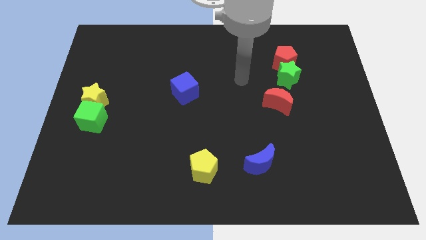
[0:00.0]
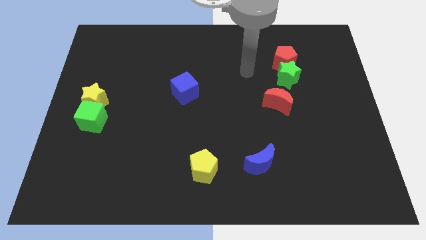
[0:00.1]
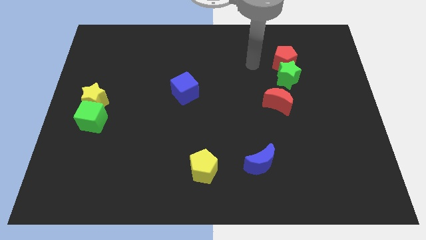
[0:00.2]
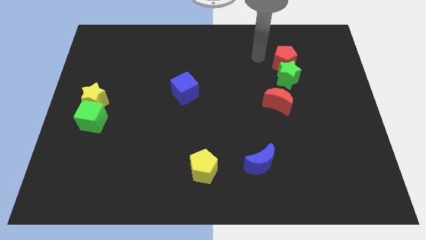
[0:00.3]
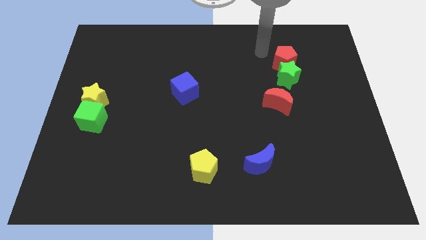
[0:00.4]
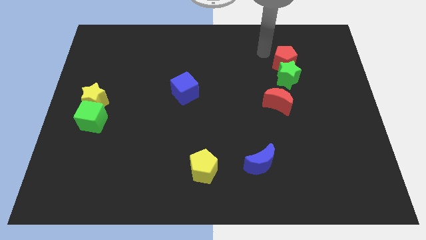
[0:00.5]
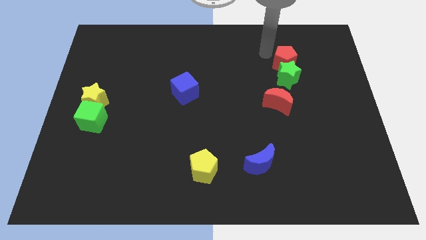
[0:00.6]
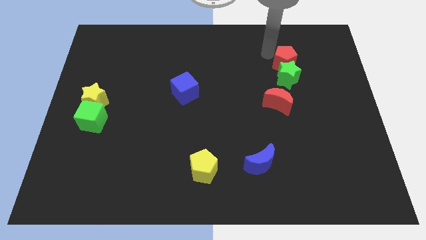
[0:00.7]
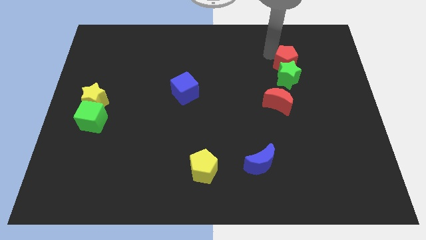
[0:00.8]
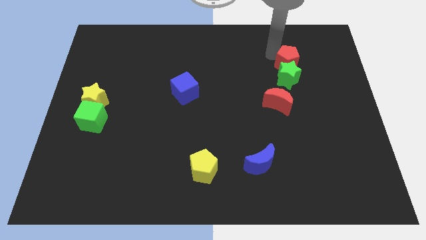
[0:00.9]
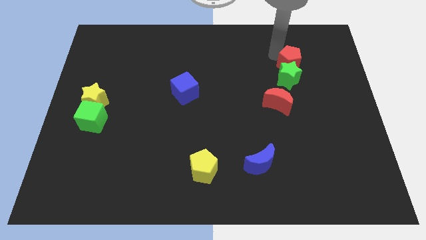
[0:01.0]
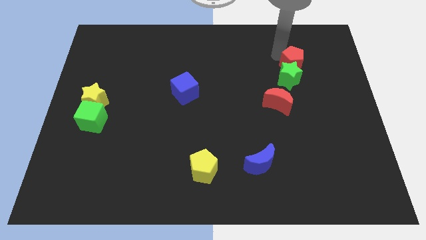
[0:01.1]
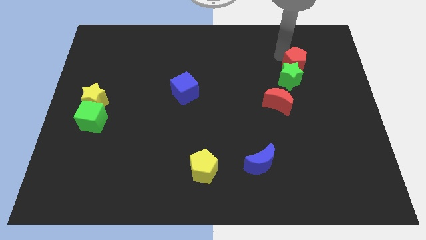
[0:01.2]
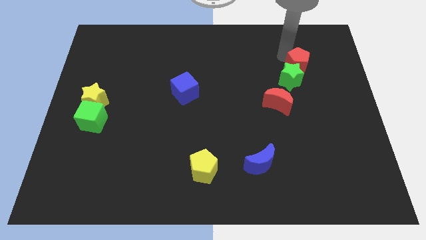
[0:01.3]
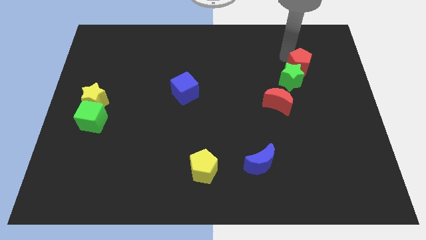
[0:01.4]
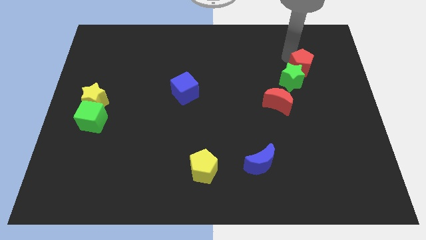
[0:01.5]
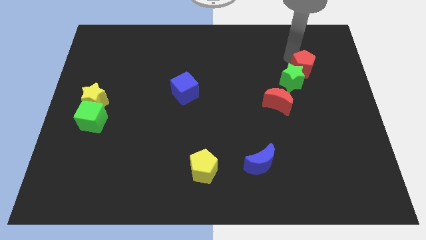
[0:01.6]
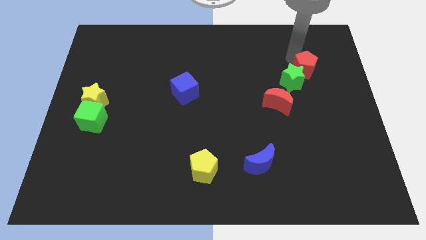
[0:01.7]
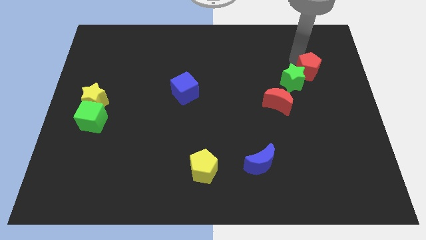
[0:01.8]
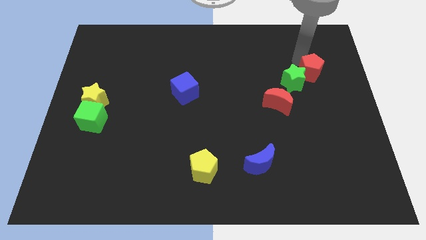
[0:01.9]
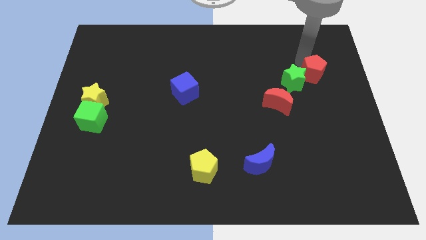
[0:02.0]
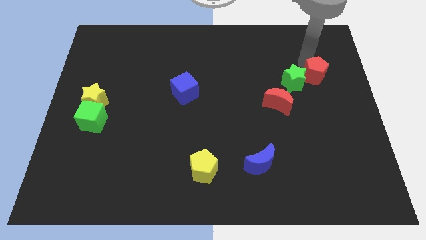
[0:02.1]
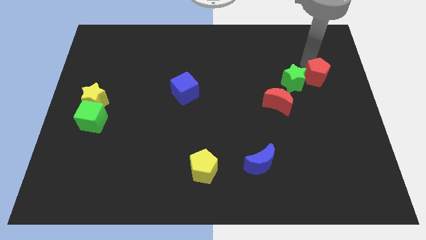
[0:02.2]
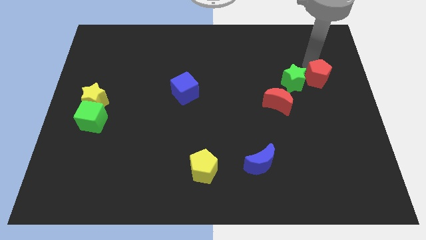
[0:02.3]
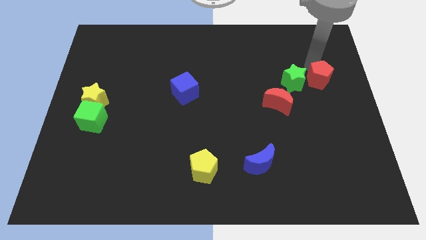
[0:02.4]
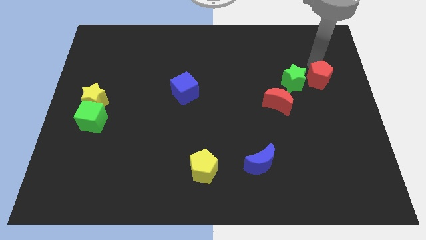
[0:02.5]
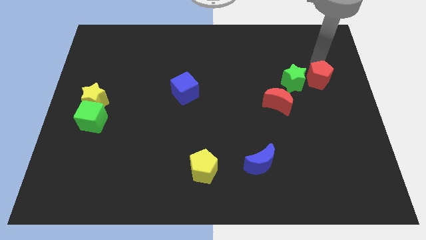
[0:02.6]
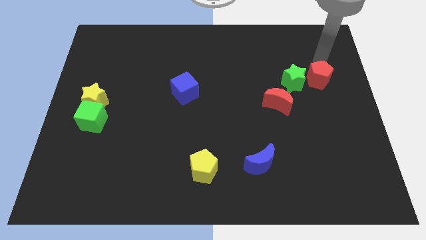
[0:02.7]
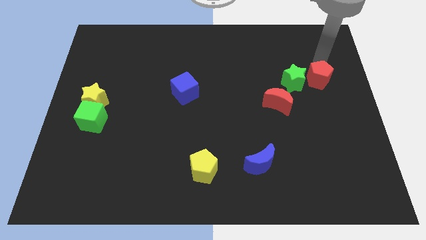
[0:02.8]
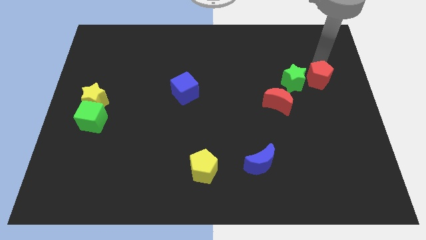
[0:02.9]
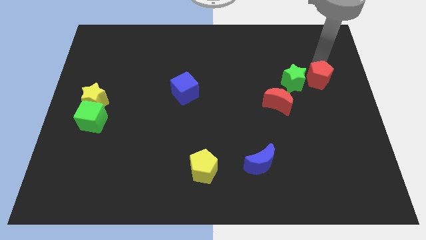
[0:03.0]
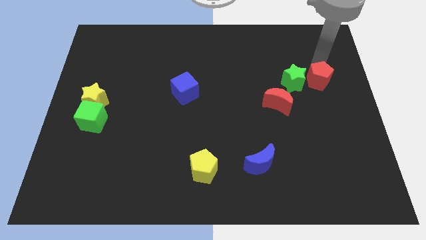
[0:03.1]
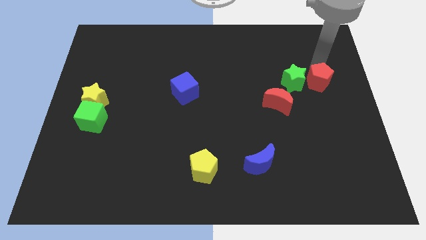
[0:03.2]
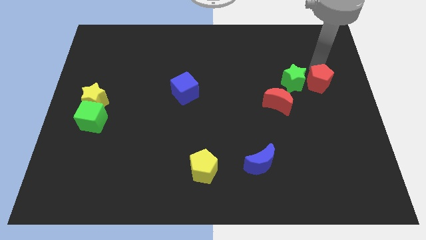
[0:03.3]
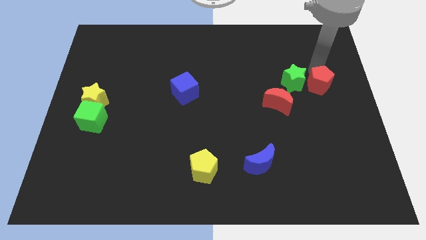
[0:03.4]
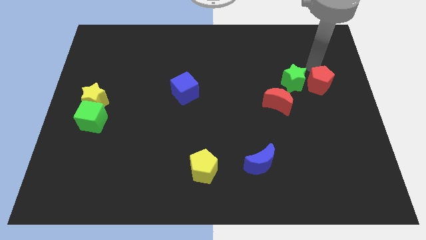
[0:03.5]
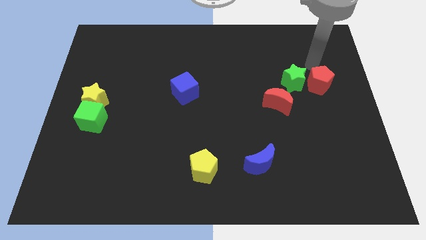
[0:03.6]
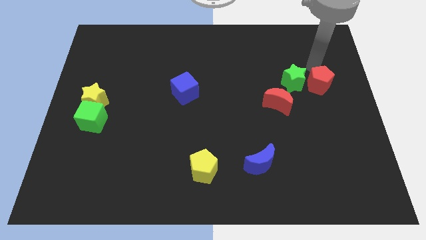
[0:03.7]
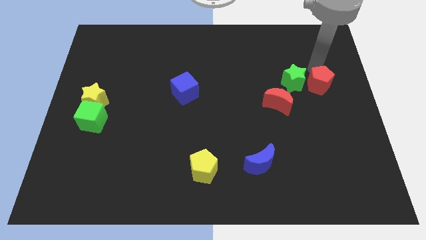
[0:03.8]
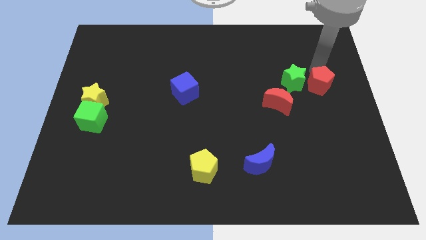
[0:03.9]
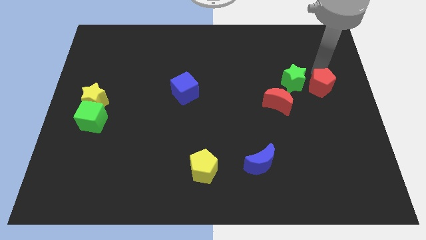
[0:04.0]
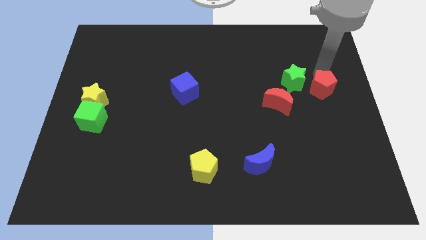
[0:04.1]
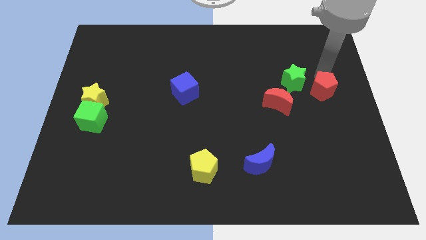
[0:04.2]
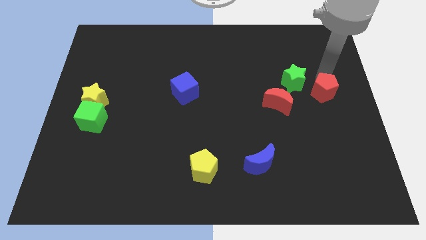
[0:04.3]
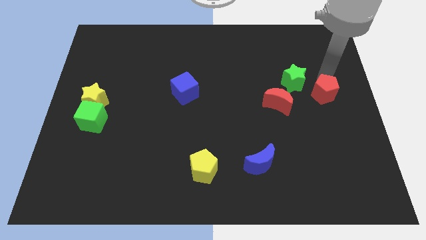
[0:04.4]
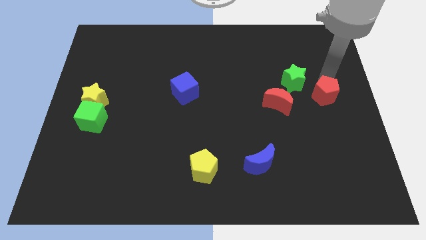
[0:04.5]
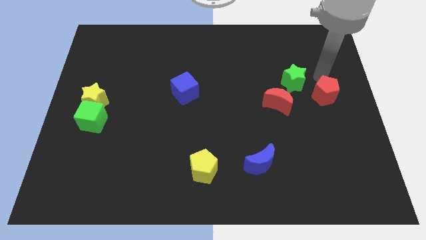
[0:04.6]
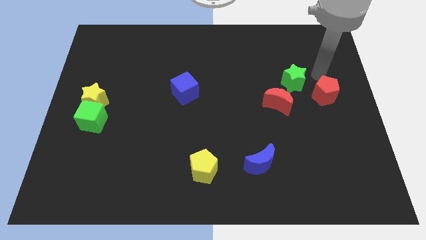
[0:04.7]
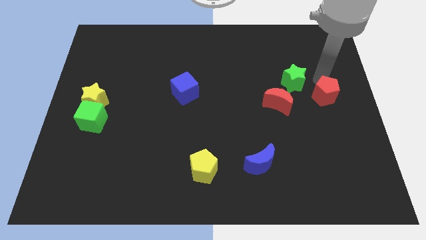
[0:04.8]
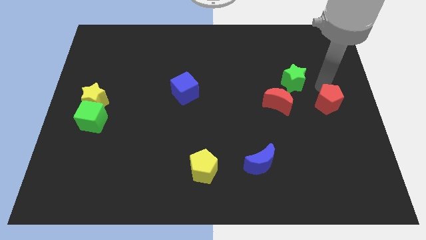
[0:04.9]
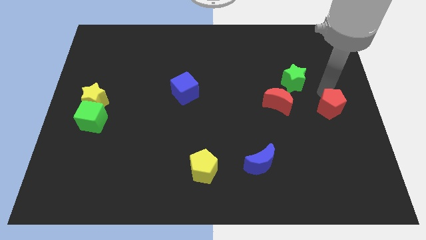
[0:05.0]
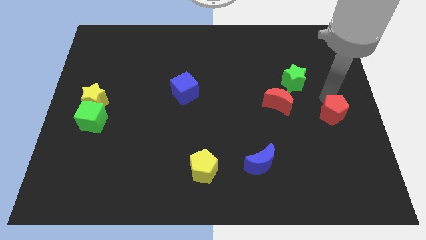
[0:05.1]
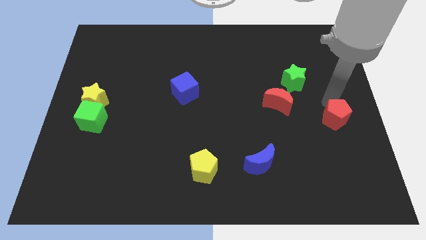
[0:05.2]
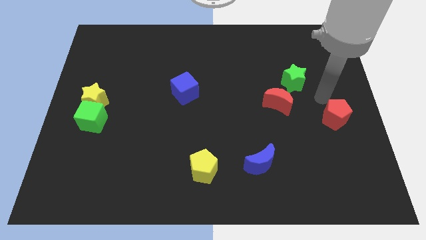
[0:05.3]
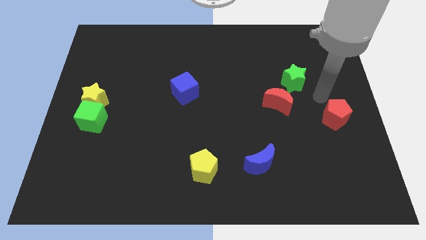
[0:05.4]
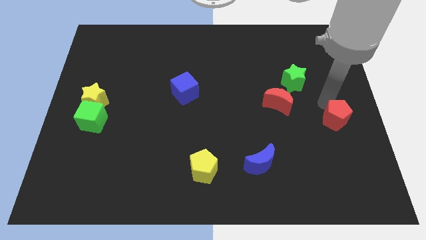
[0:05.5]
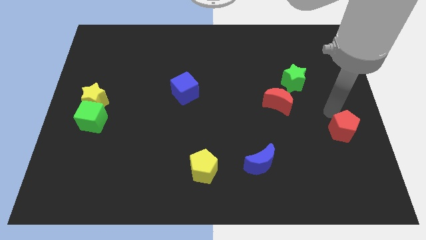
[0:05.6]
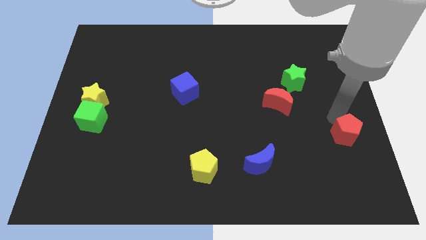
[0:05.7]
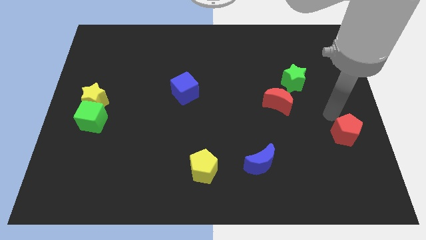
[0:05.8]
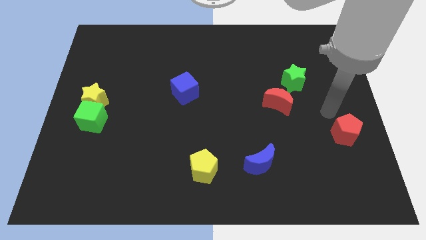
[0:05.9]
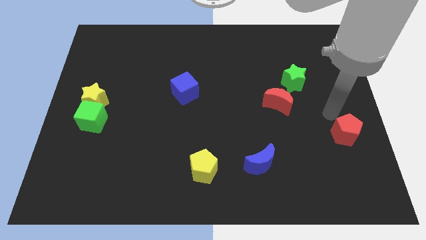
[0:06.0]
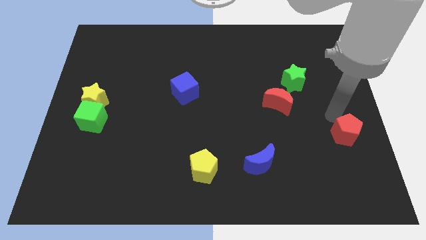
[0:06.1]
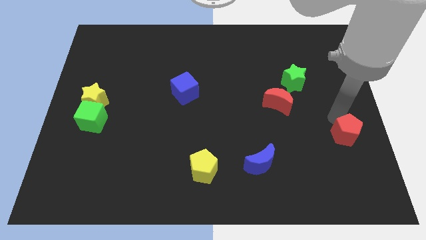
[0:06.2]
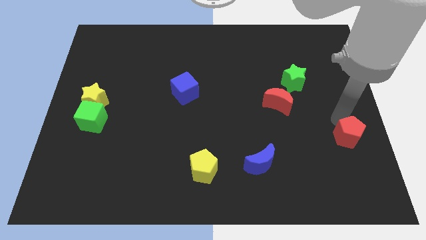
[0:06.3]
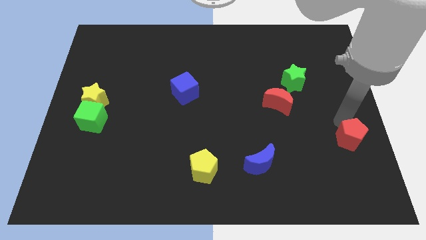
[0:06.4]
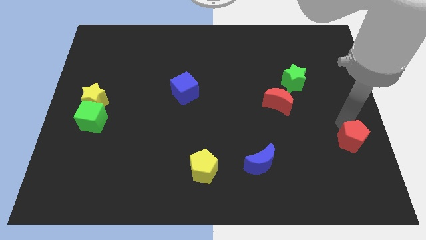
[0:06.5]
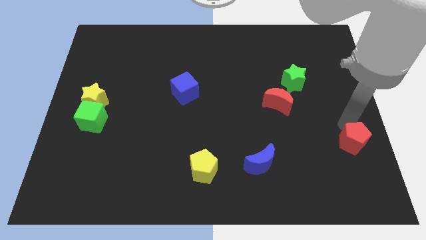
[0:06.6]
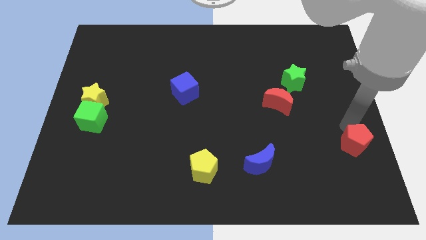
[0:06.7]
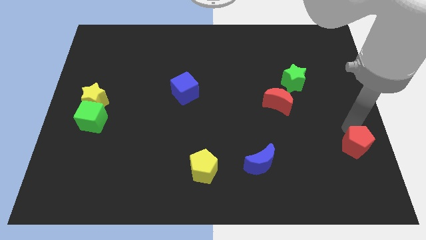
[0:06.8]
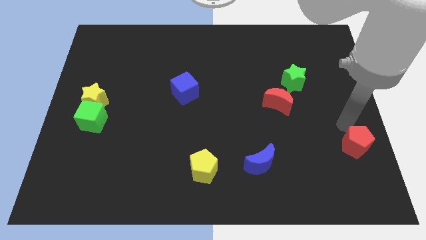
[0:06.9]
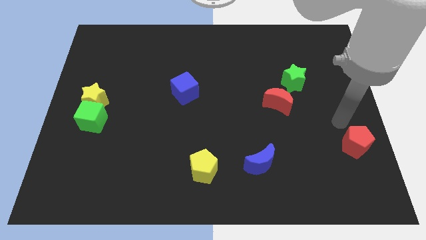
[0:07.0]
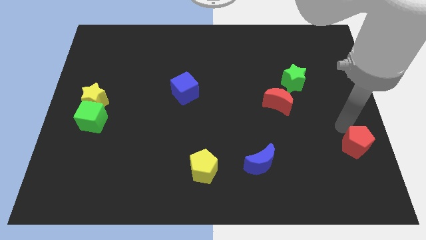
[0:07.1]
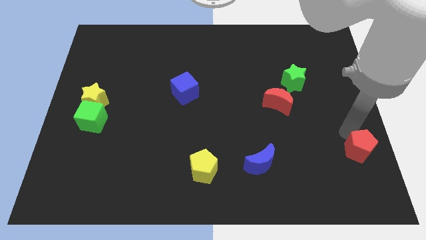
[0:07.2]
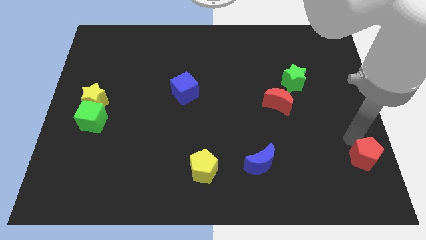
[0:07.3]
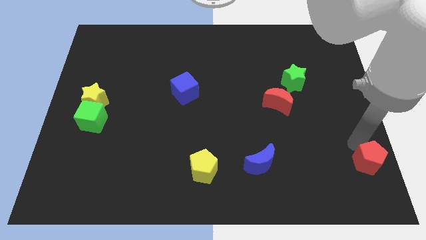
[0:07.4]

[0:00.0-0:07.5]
put the red pentagon to the bottom right of the board

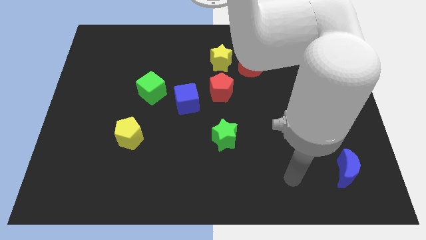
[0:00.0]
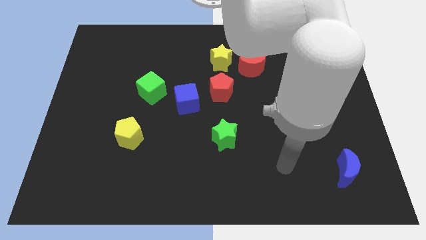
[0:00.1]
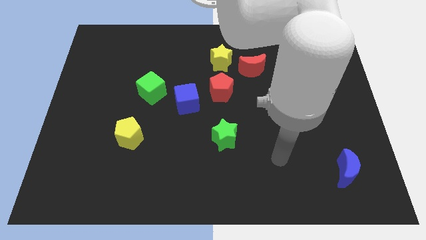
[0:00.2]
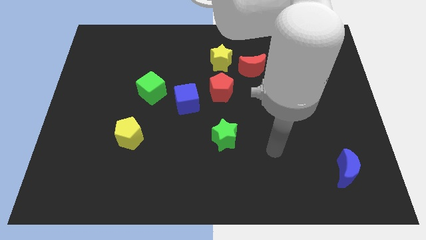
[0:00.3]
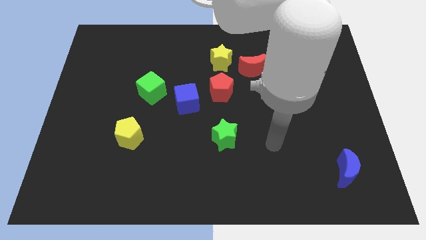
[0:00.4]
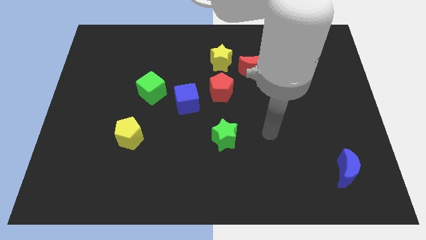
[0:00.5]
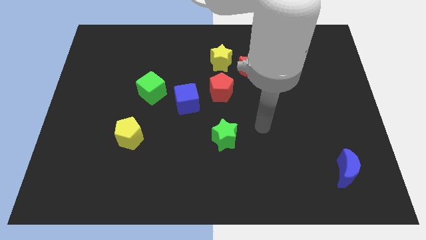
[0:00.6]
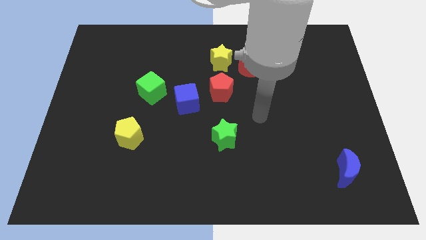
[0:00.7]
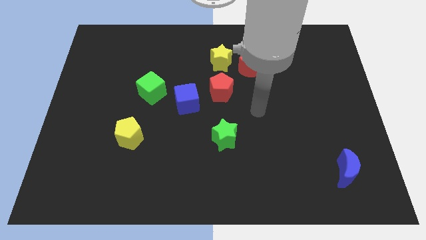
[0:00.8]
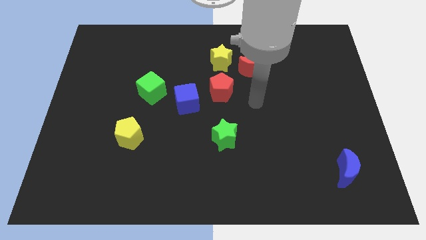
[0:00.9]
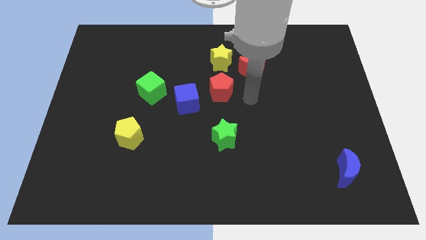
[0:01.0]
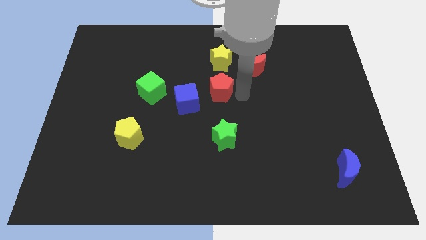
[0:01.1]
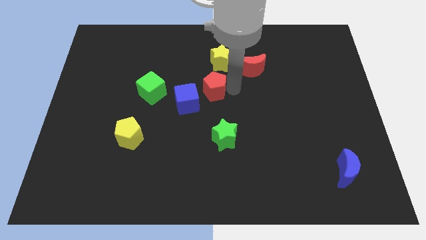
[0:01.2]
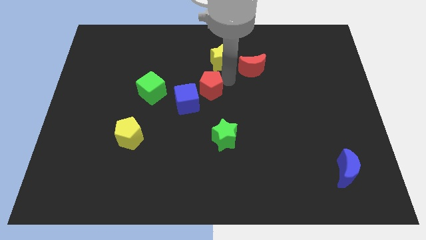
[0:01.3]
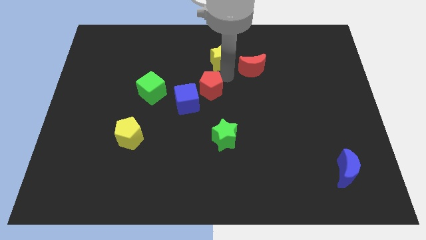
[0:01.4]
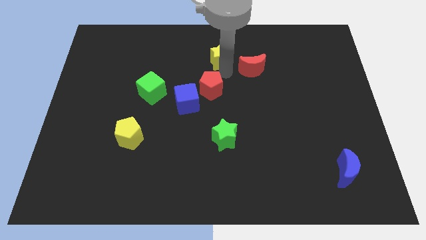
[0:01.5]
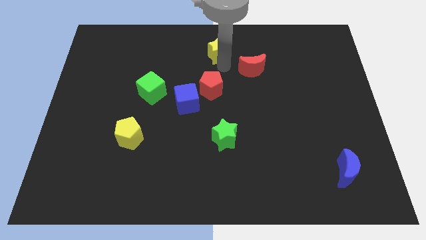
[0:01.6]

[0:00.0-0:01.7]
push the yellow star to the top side
